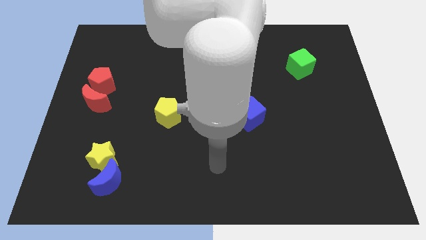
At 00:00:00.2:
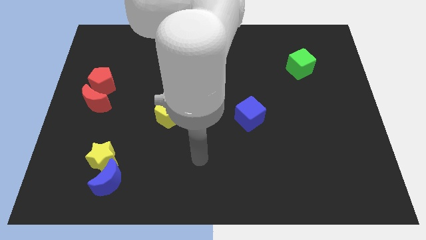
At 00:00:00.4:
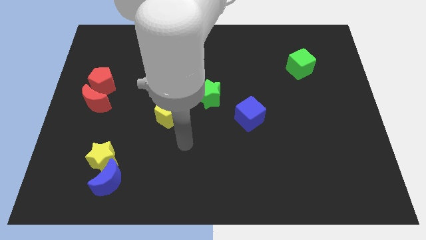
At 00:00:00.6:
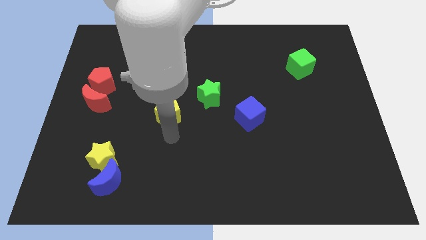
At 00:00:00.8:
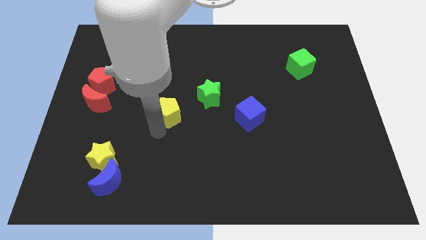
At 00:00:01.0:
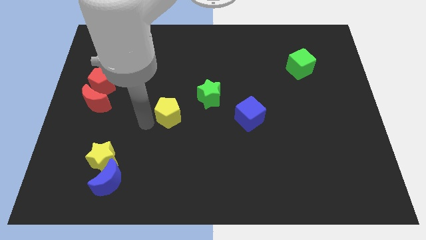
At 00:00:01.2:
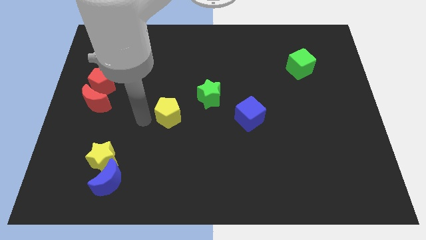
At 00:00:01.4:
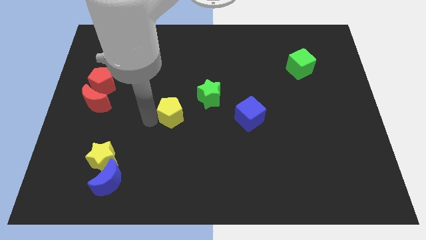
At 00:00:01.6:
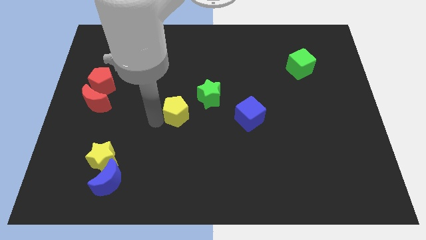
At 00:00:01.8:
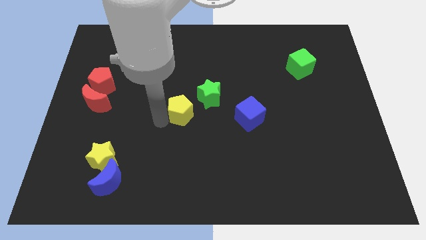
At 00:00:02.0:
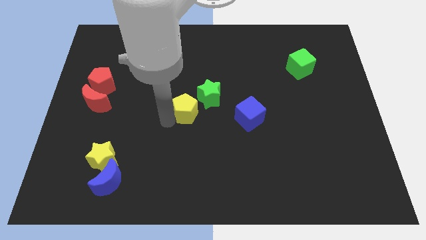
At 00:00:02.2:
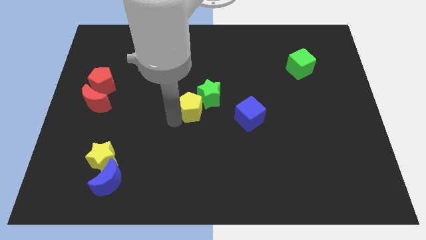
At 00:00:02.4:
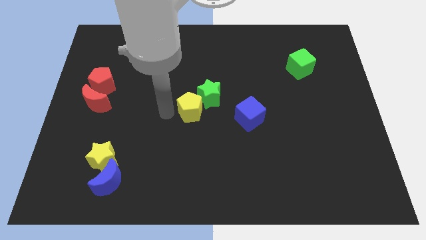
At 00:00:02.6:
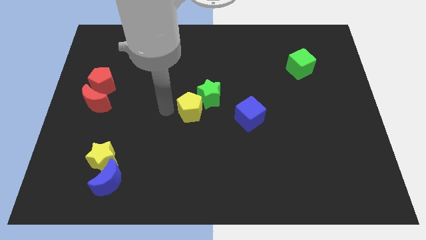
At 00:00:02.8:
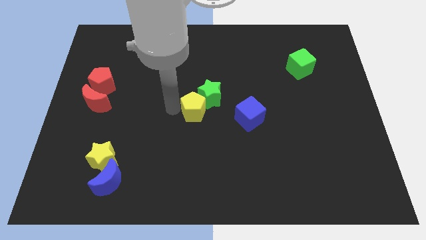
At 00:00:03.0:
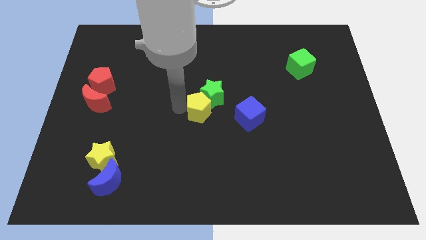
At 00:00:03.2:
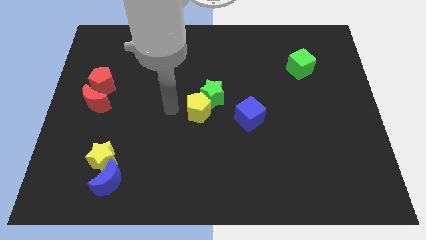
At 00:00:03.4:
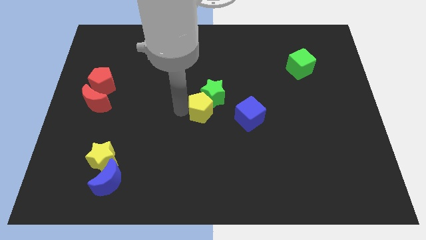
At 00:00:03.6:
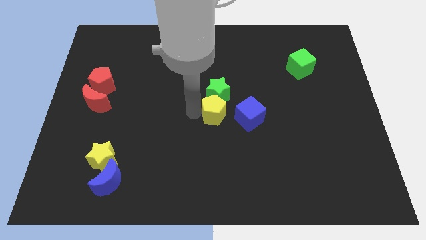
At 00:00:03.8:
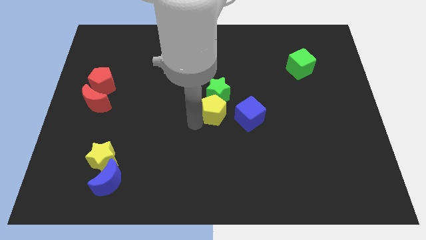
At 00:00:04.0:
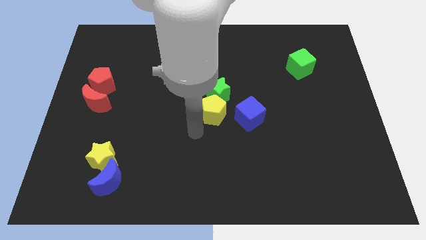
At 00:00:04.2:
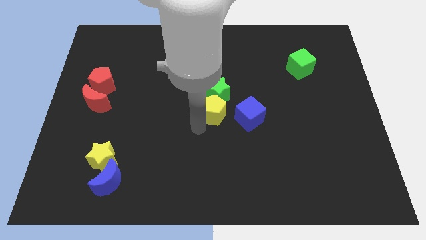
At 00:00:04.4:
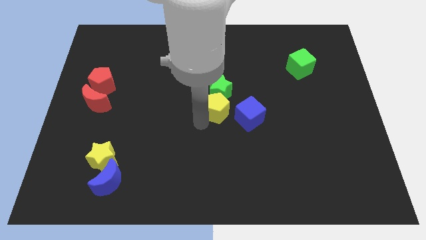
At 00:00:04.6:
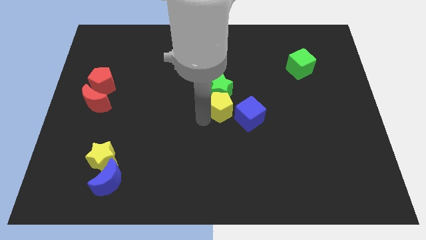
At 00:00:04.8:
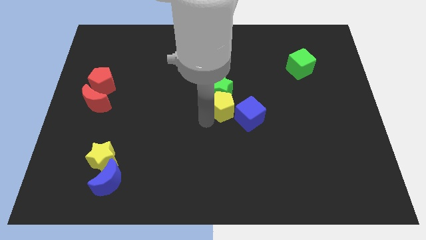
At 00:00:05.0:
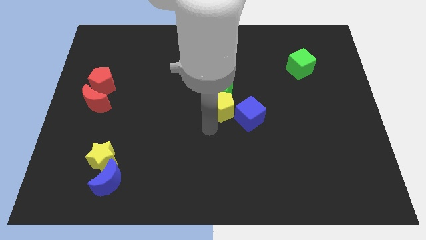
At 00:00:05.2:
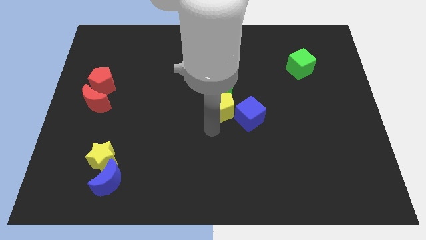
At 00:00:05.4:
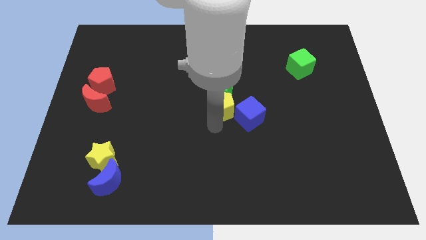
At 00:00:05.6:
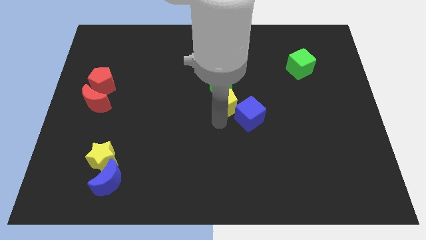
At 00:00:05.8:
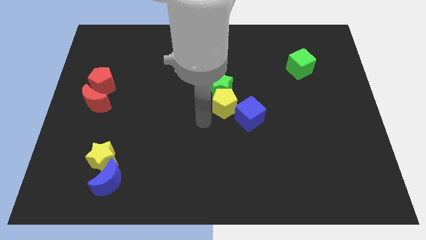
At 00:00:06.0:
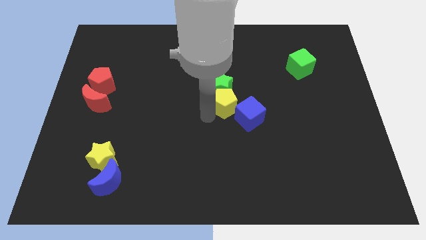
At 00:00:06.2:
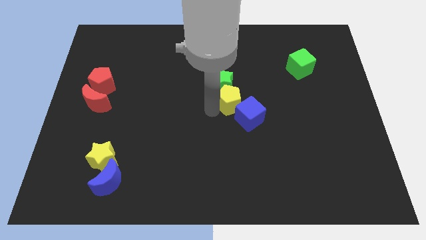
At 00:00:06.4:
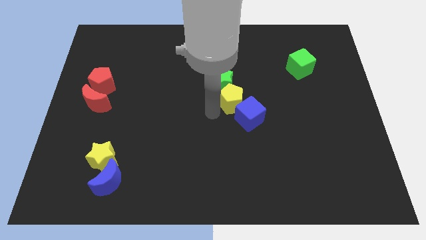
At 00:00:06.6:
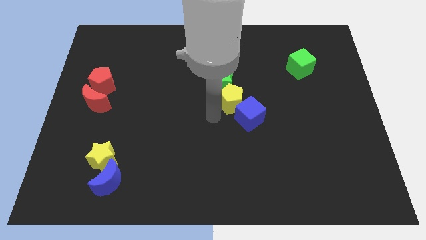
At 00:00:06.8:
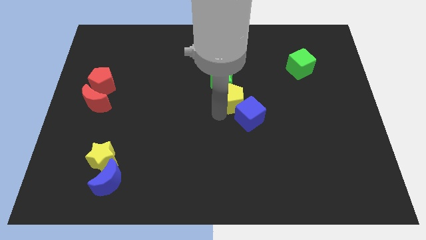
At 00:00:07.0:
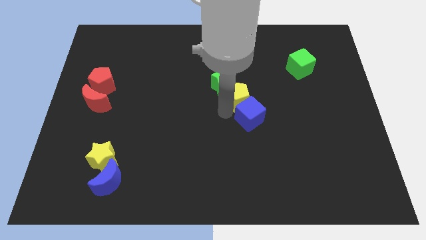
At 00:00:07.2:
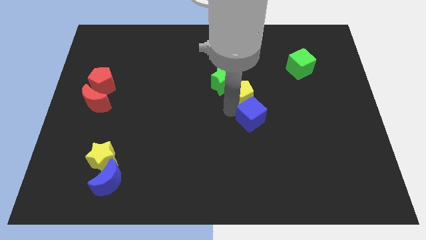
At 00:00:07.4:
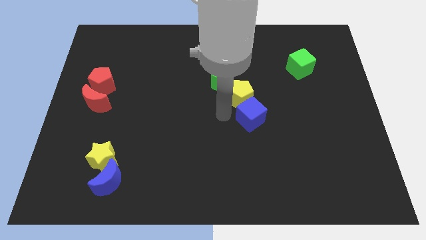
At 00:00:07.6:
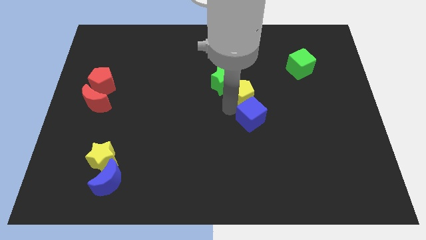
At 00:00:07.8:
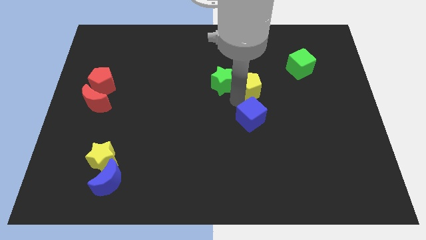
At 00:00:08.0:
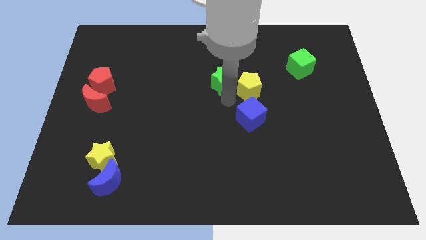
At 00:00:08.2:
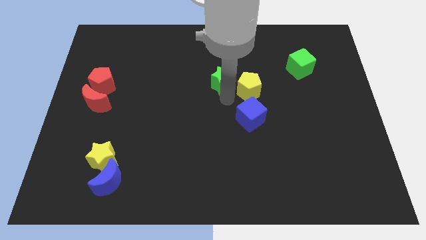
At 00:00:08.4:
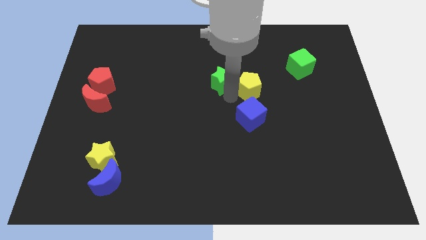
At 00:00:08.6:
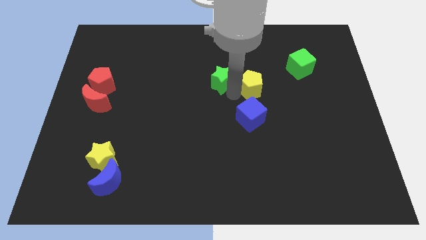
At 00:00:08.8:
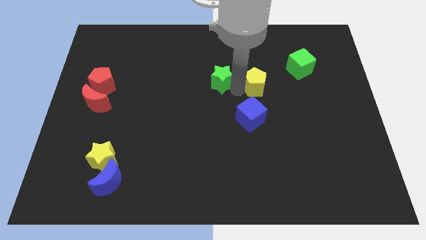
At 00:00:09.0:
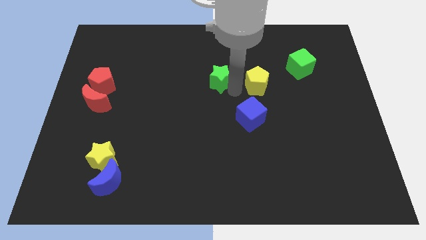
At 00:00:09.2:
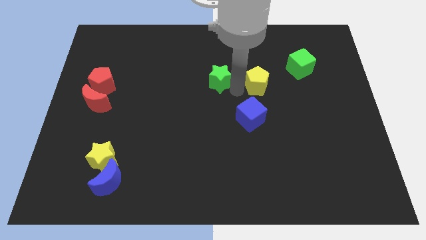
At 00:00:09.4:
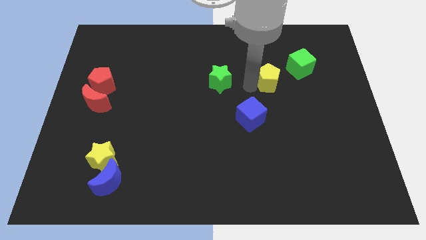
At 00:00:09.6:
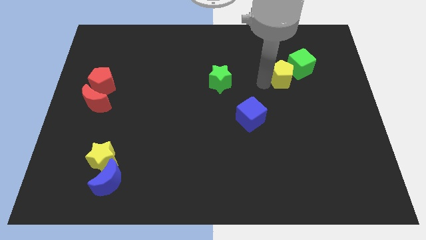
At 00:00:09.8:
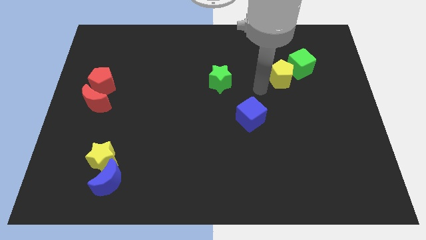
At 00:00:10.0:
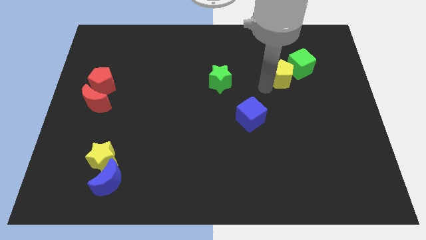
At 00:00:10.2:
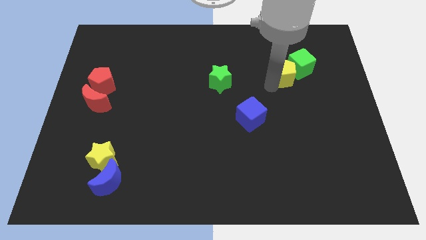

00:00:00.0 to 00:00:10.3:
push the yellow pentagon to the green cube

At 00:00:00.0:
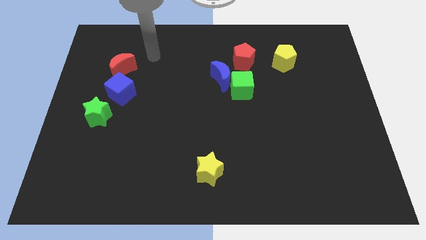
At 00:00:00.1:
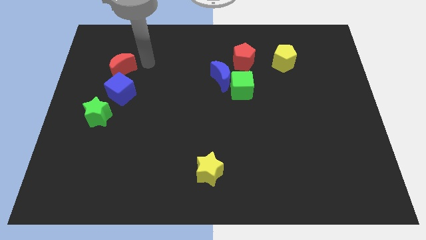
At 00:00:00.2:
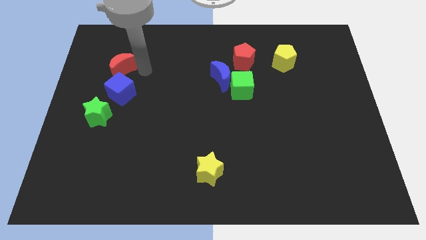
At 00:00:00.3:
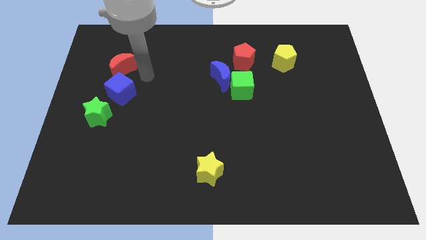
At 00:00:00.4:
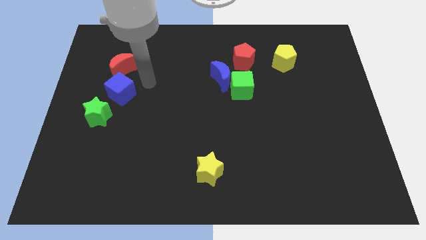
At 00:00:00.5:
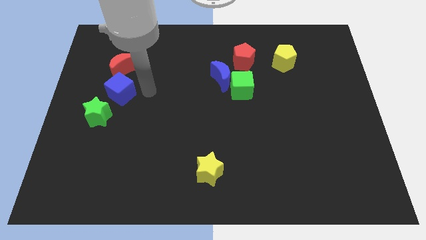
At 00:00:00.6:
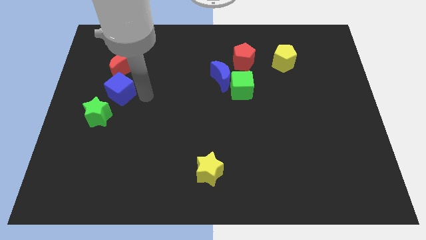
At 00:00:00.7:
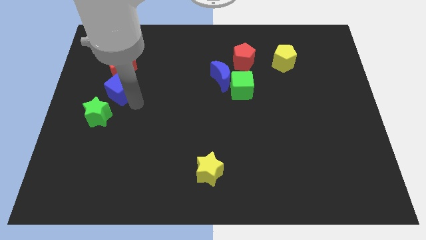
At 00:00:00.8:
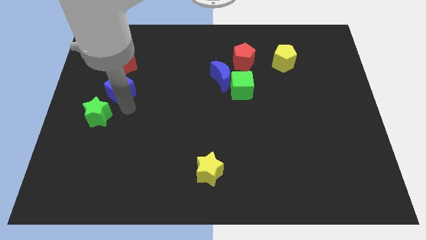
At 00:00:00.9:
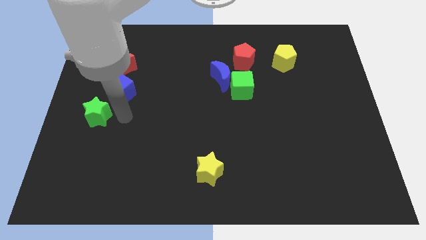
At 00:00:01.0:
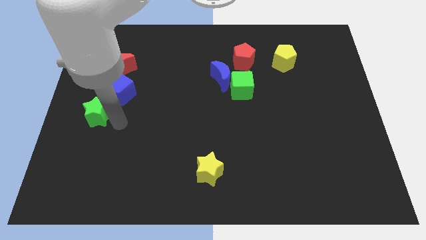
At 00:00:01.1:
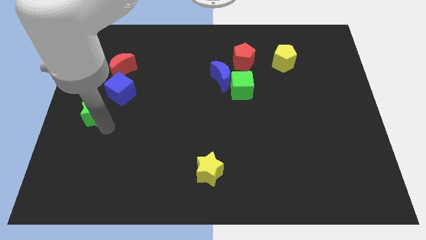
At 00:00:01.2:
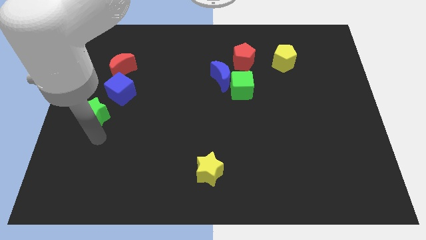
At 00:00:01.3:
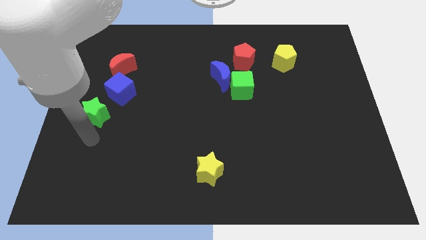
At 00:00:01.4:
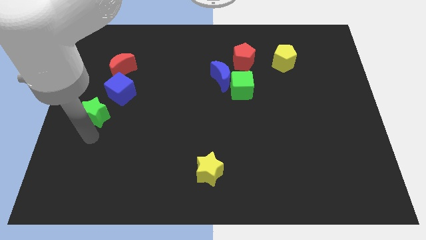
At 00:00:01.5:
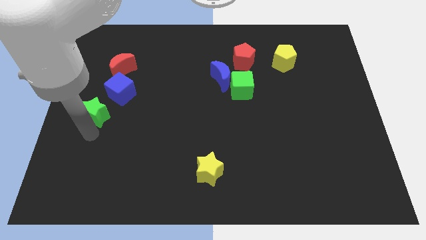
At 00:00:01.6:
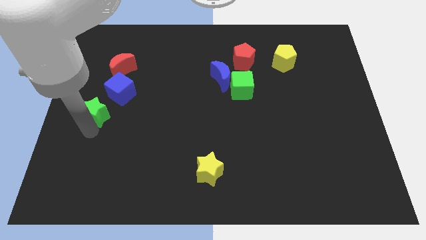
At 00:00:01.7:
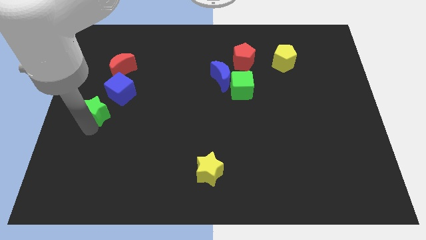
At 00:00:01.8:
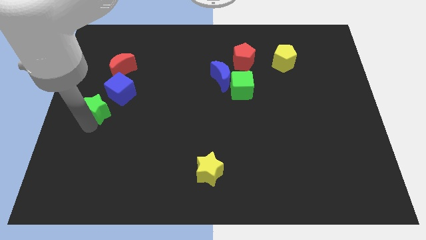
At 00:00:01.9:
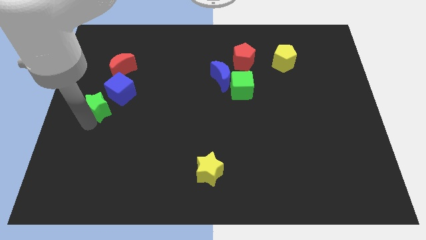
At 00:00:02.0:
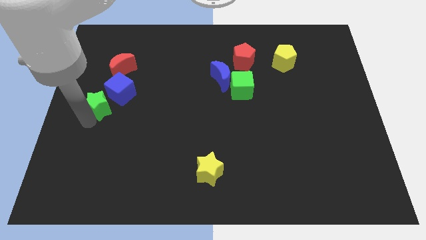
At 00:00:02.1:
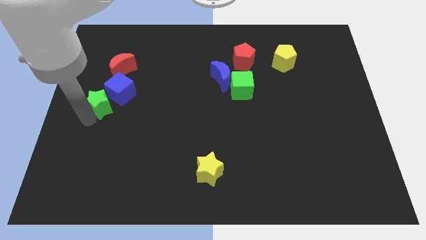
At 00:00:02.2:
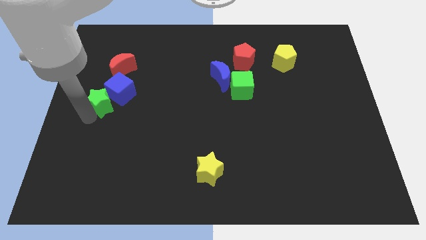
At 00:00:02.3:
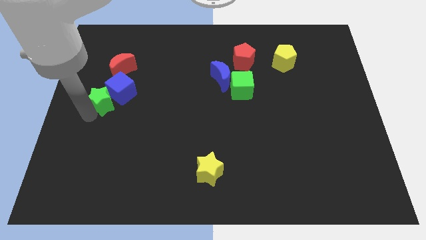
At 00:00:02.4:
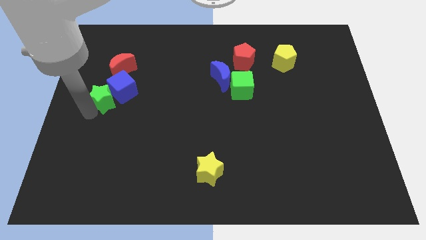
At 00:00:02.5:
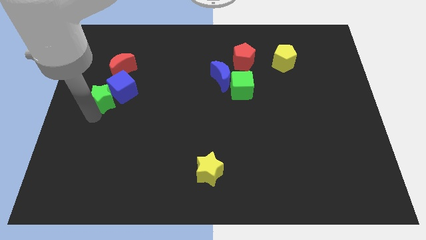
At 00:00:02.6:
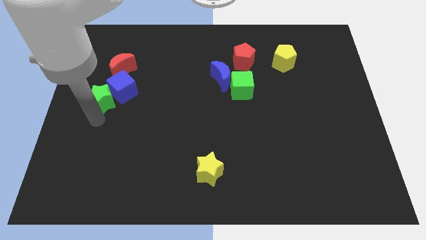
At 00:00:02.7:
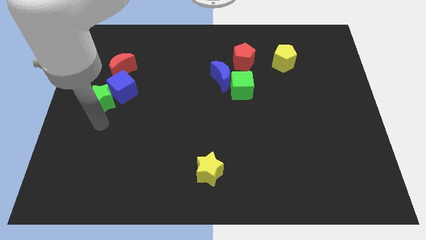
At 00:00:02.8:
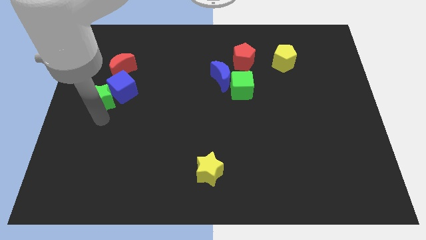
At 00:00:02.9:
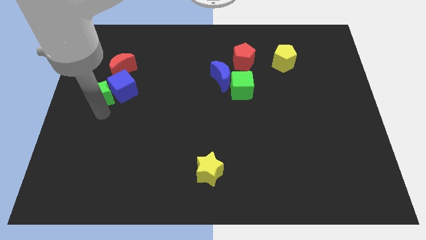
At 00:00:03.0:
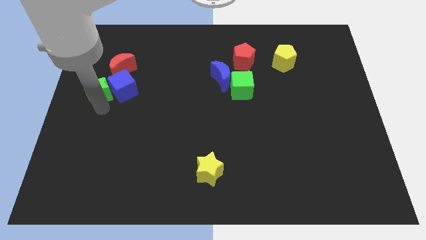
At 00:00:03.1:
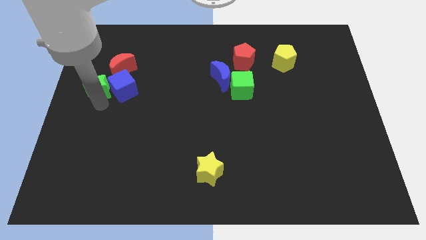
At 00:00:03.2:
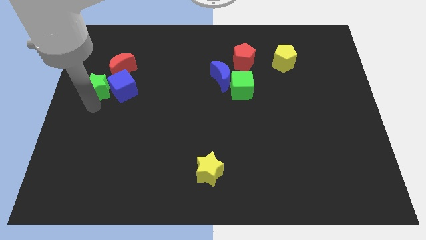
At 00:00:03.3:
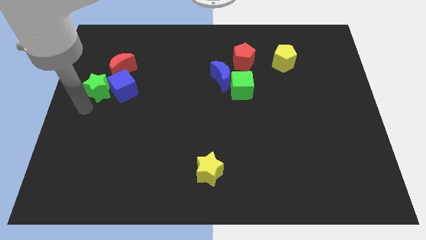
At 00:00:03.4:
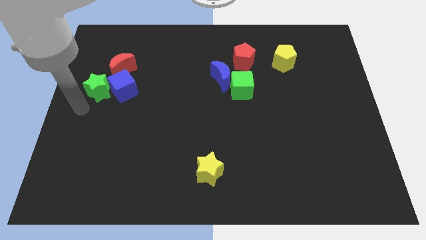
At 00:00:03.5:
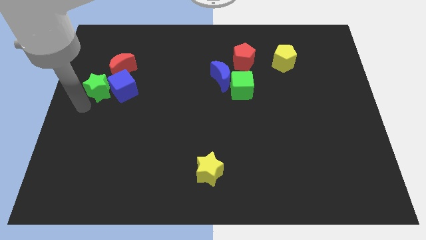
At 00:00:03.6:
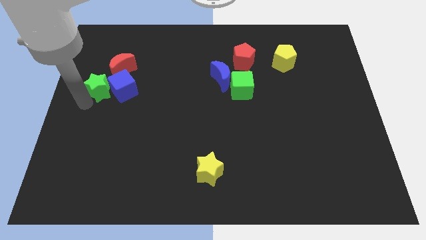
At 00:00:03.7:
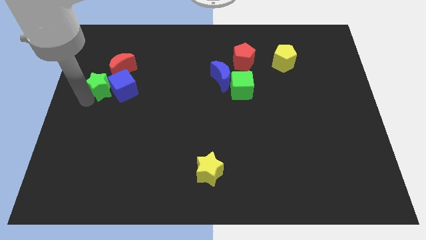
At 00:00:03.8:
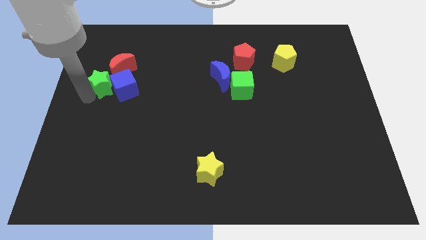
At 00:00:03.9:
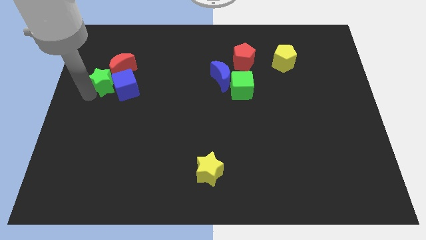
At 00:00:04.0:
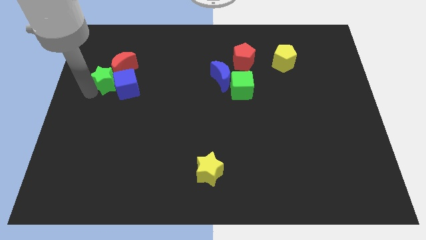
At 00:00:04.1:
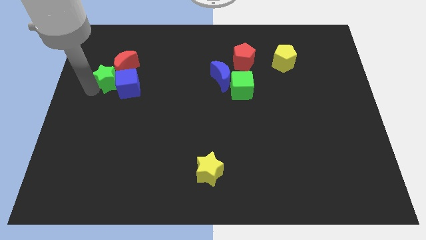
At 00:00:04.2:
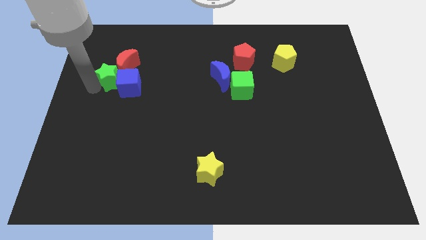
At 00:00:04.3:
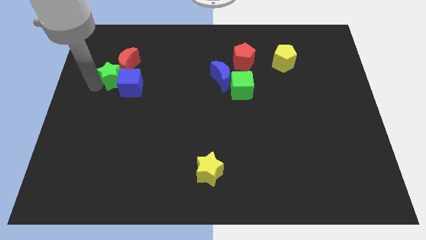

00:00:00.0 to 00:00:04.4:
put the green star to the red moon
